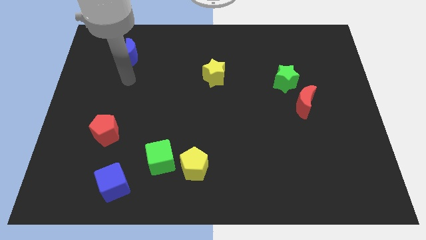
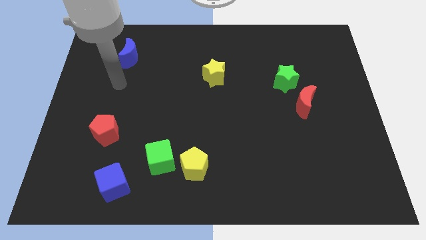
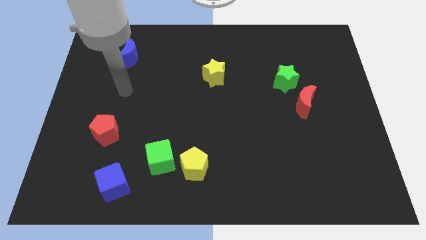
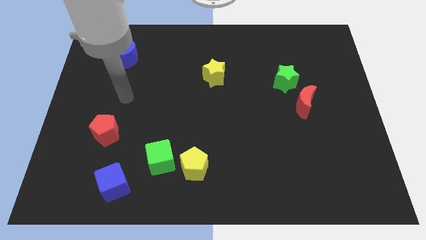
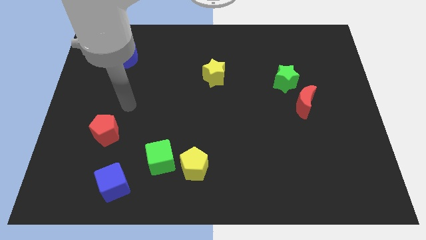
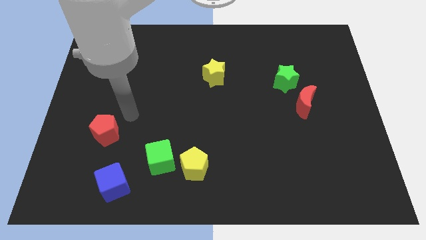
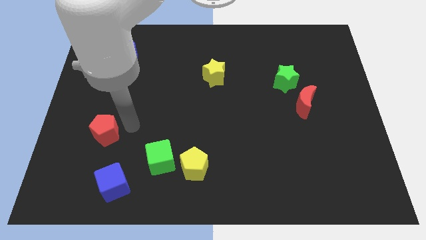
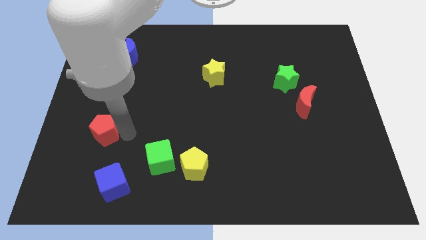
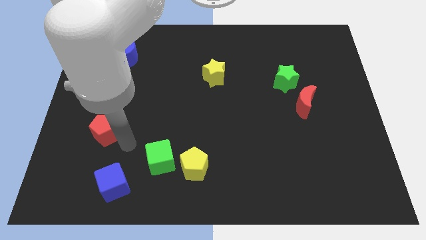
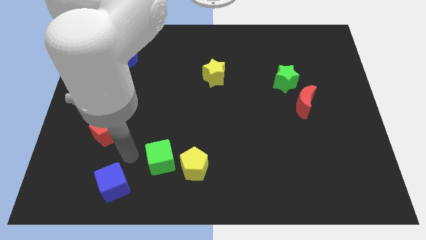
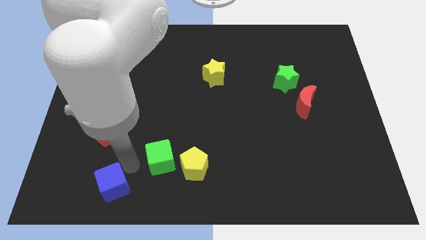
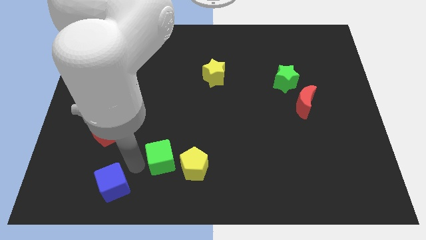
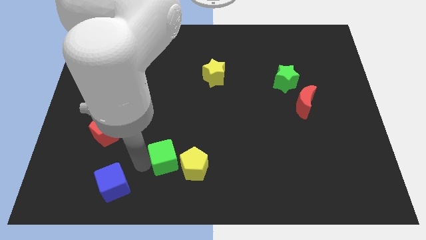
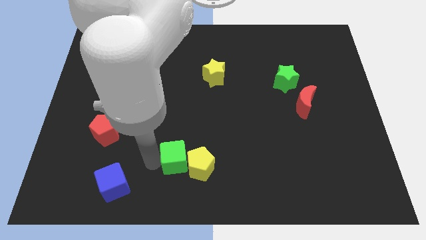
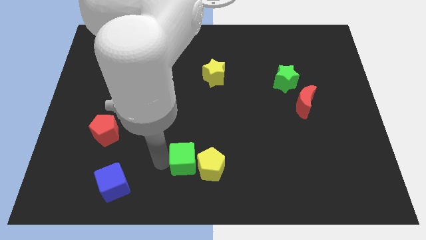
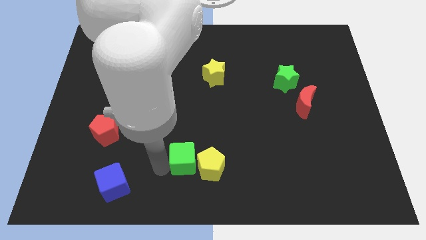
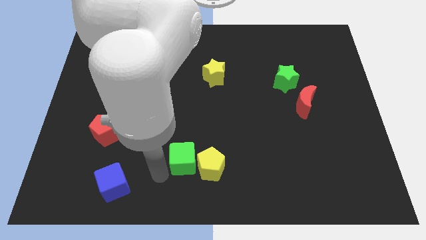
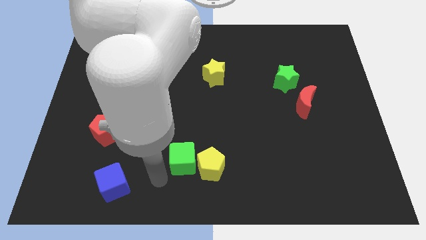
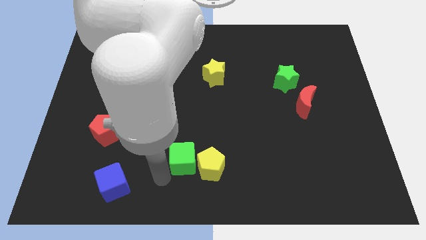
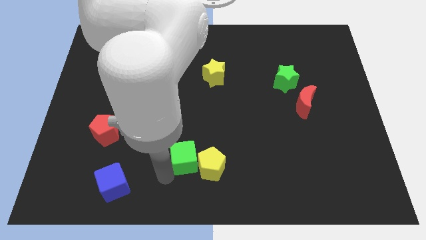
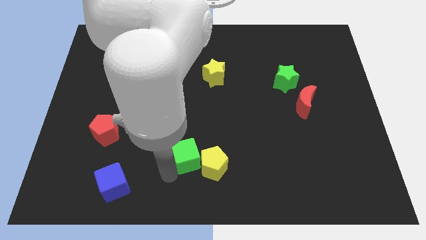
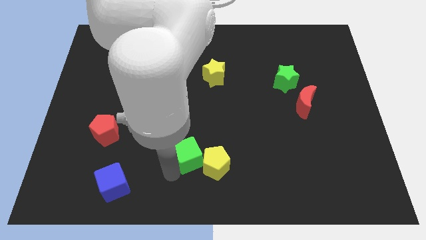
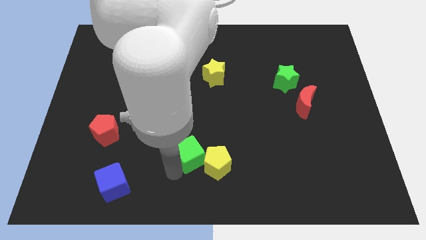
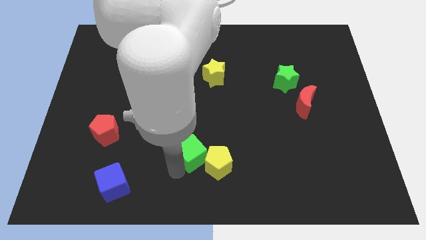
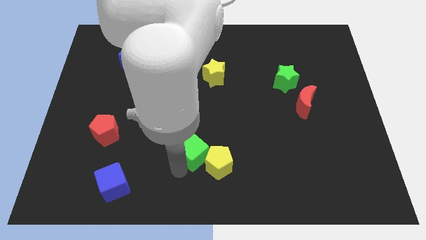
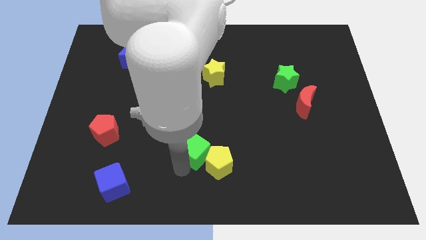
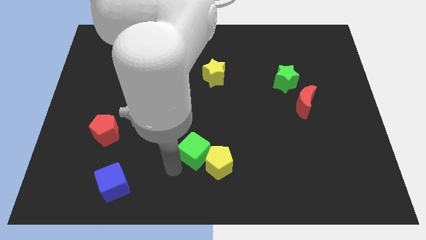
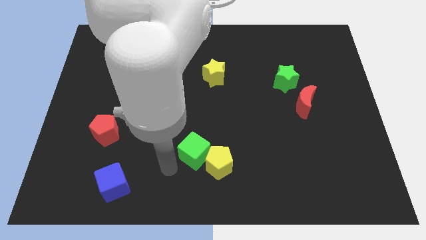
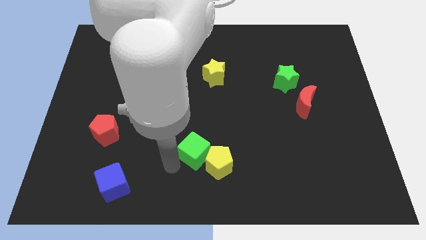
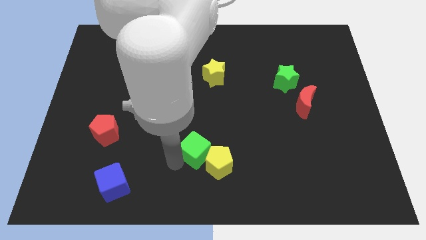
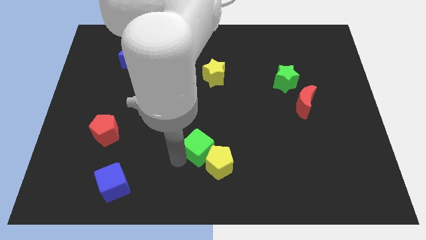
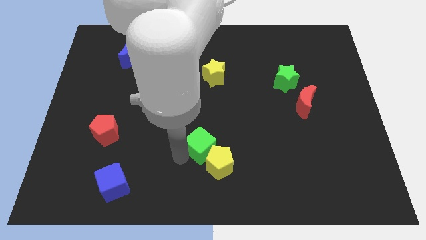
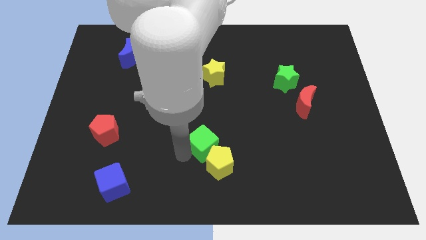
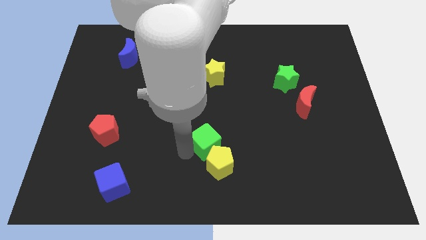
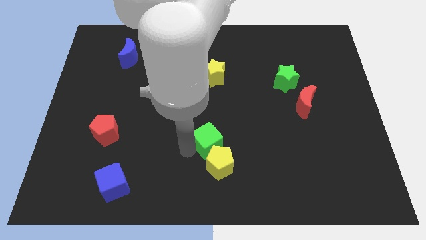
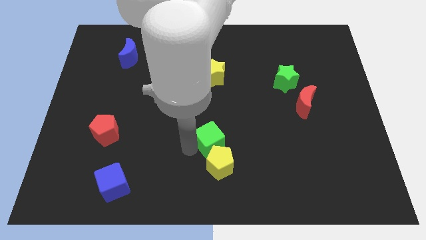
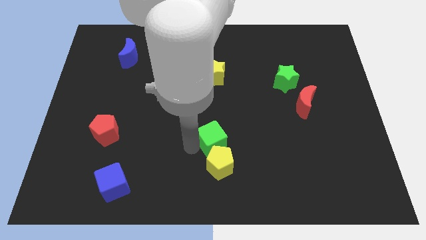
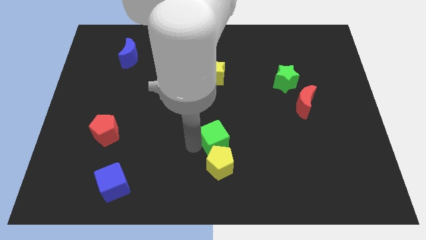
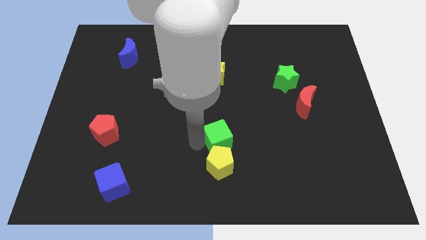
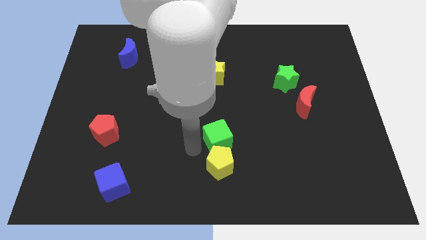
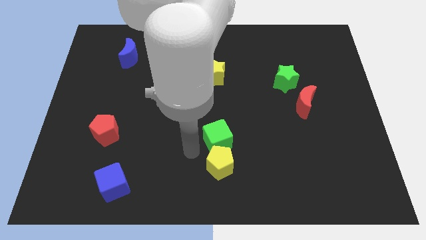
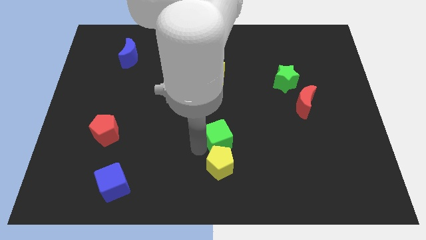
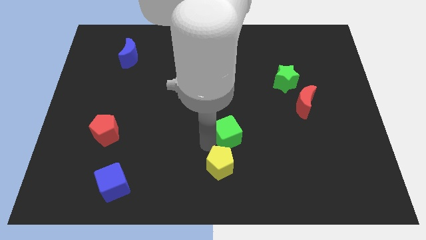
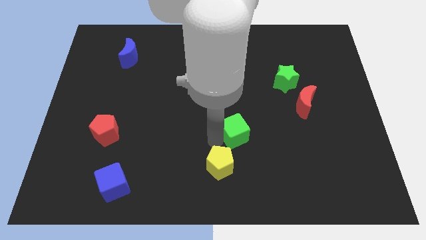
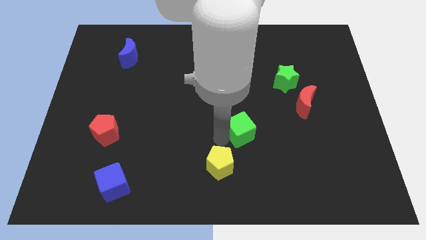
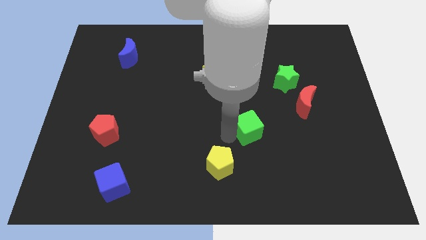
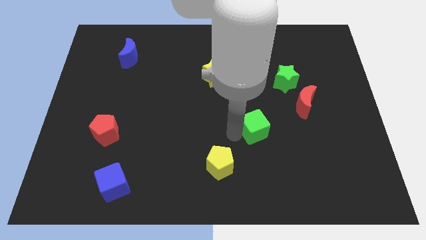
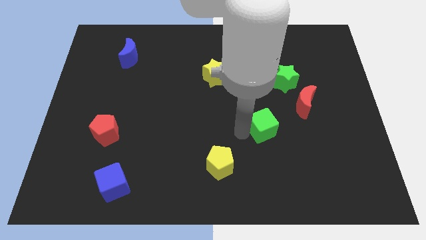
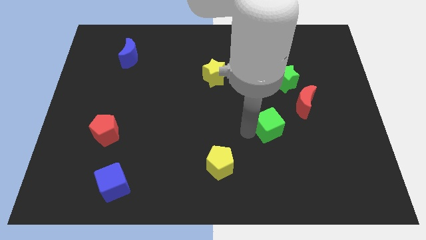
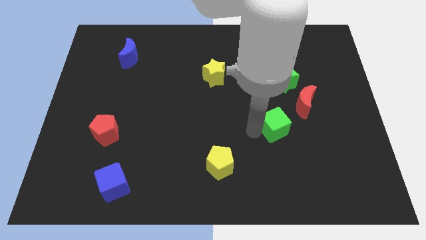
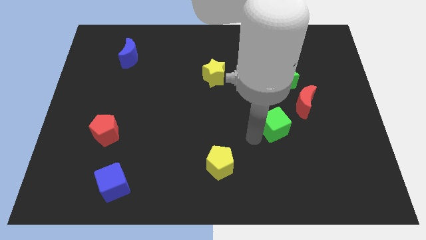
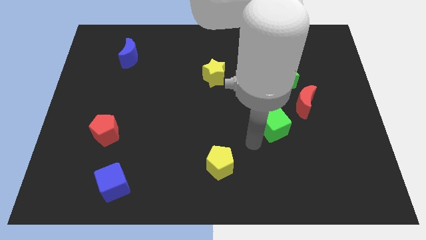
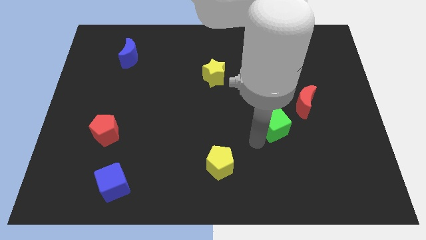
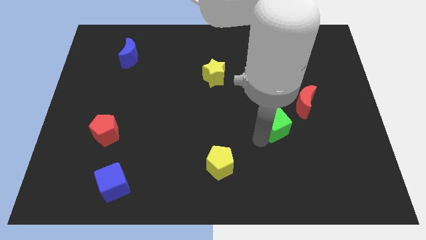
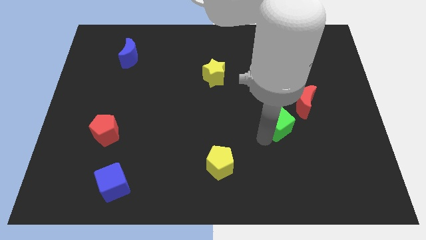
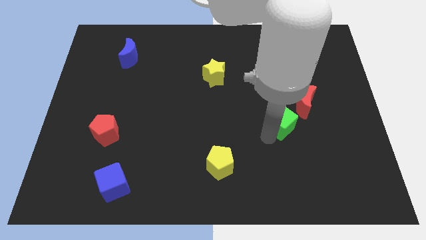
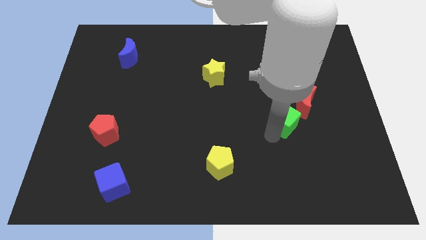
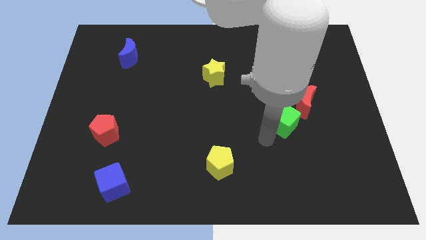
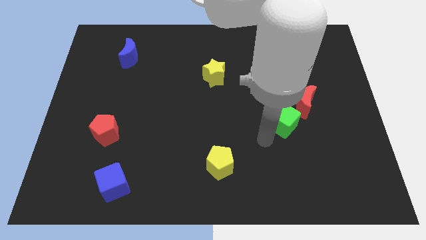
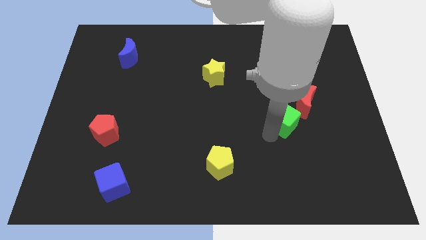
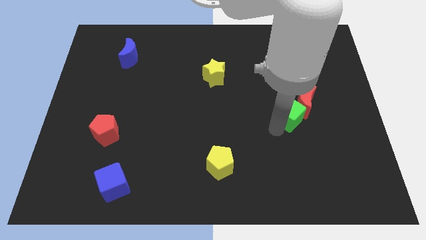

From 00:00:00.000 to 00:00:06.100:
push the green cube towards the red moon
